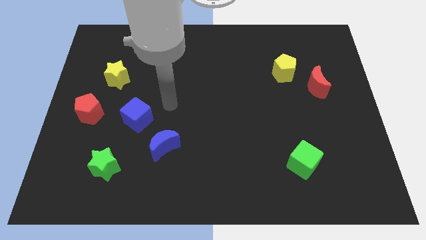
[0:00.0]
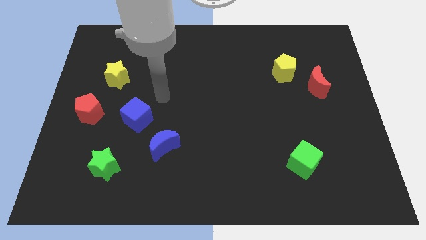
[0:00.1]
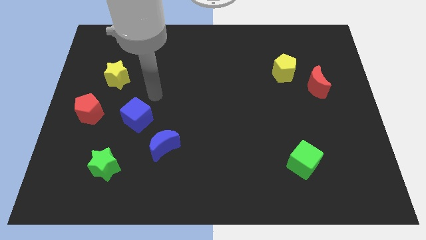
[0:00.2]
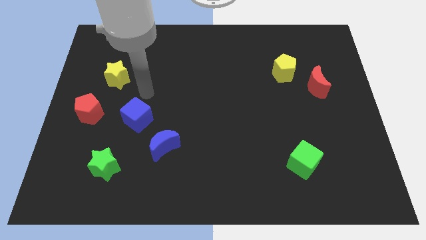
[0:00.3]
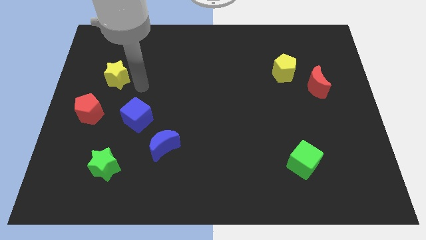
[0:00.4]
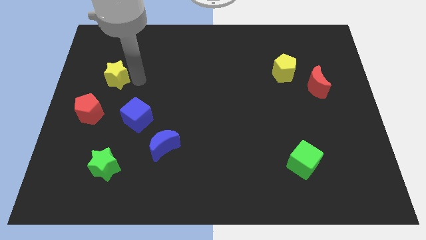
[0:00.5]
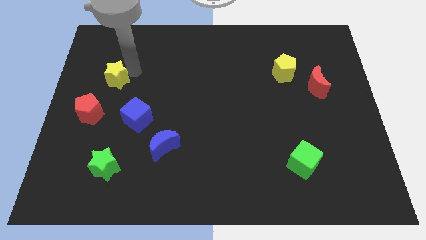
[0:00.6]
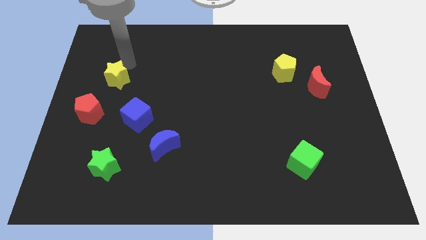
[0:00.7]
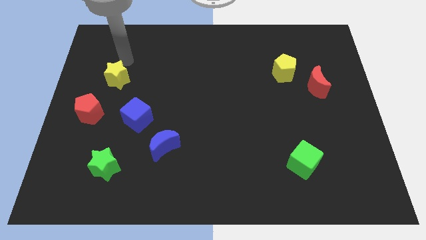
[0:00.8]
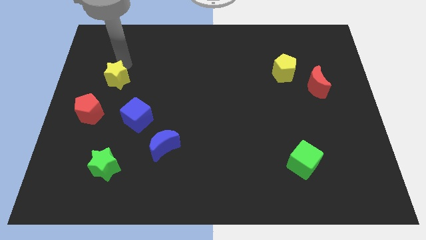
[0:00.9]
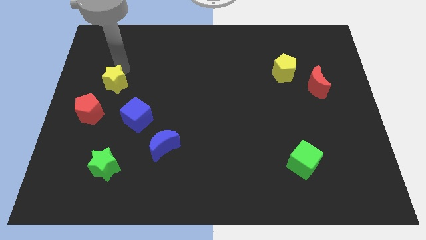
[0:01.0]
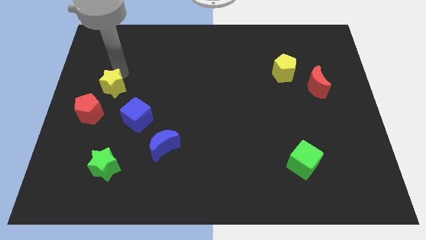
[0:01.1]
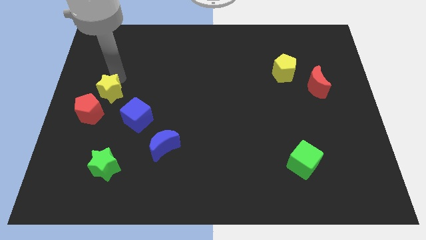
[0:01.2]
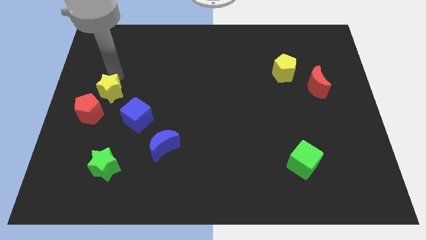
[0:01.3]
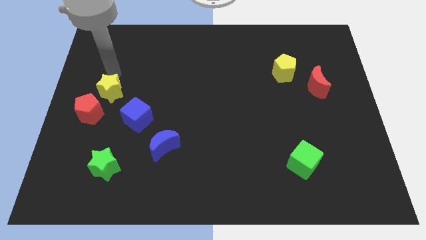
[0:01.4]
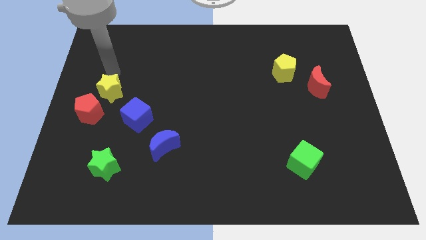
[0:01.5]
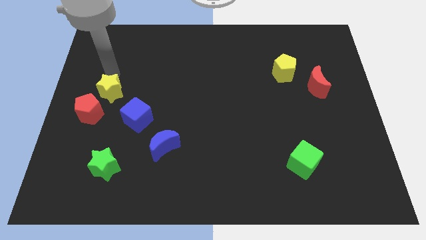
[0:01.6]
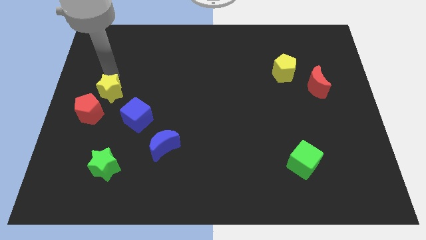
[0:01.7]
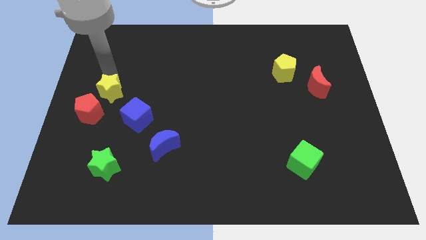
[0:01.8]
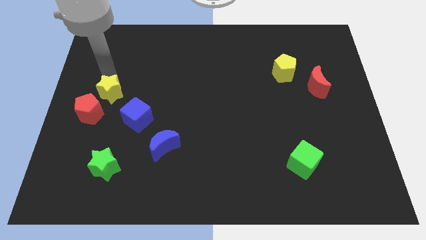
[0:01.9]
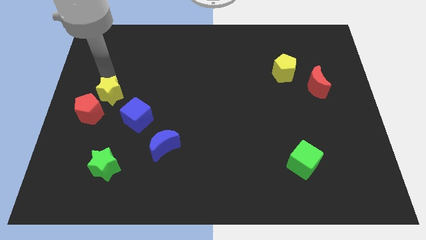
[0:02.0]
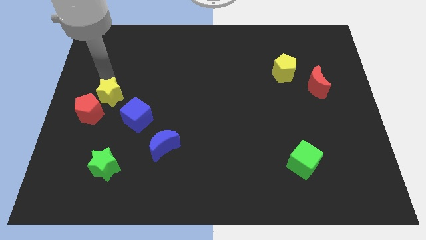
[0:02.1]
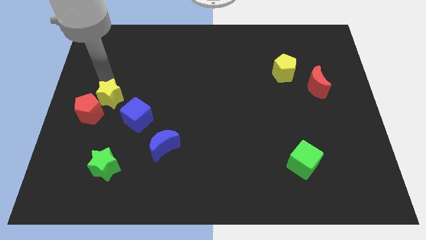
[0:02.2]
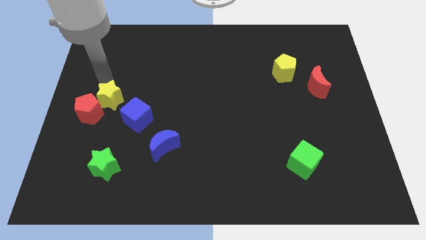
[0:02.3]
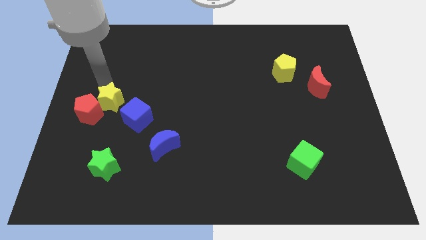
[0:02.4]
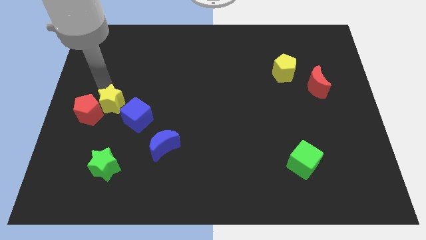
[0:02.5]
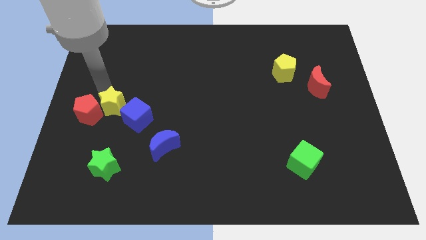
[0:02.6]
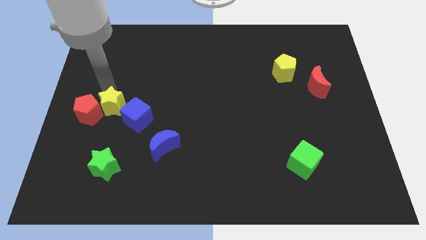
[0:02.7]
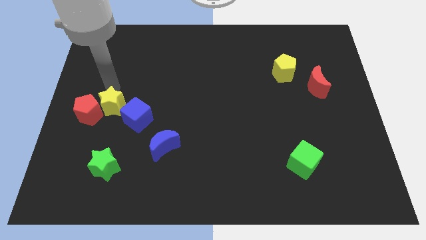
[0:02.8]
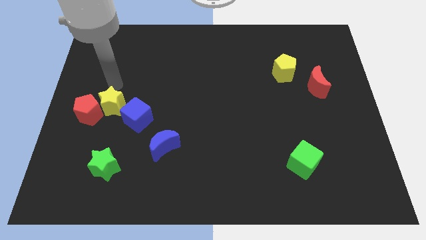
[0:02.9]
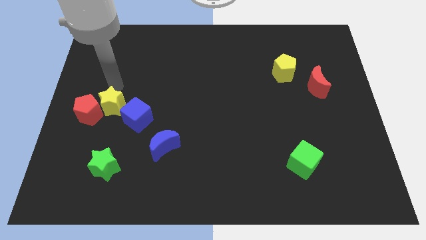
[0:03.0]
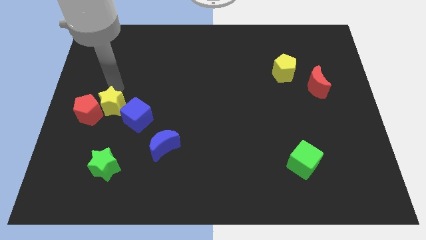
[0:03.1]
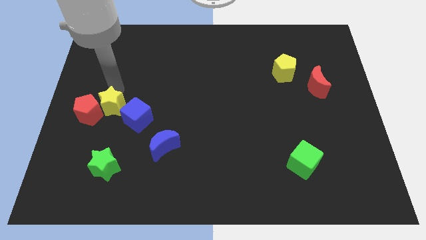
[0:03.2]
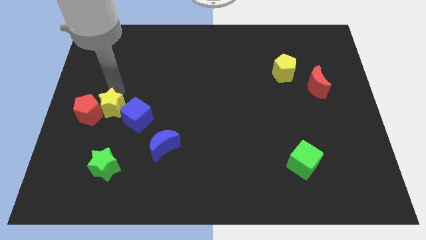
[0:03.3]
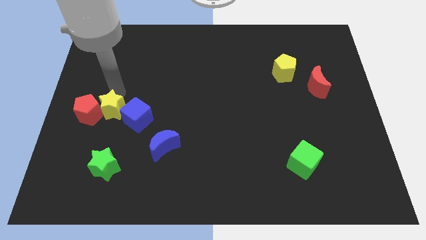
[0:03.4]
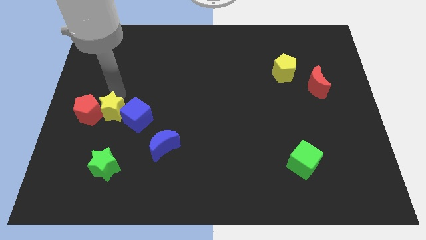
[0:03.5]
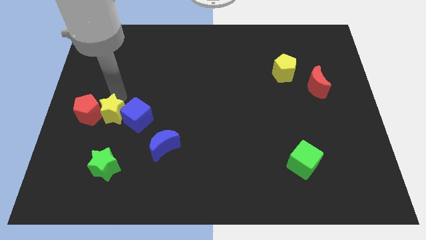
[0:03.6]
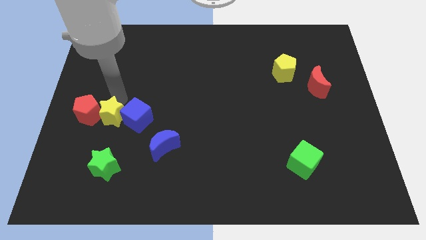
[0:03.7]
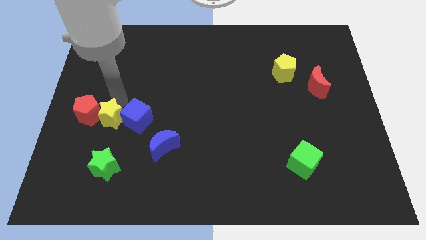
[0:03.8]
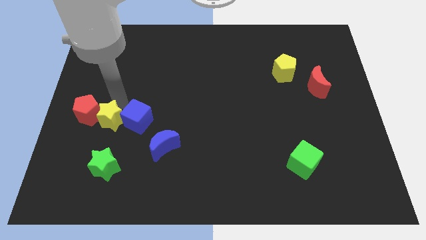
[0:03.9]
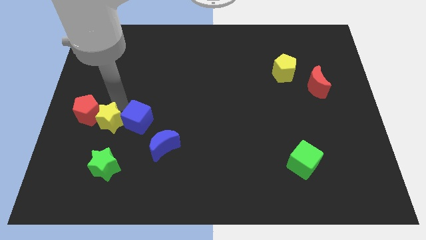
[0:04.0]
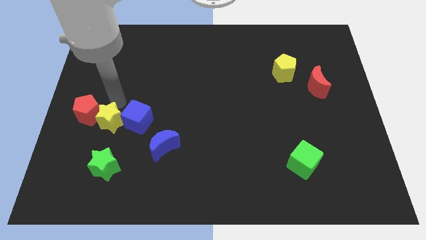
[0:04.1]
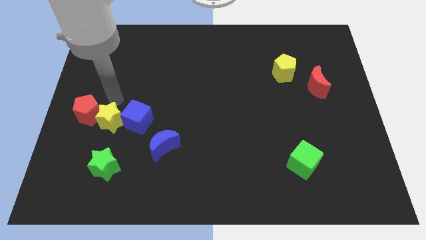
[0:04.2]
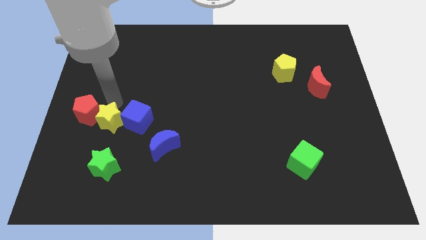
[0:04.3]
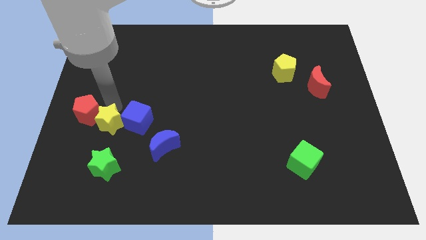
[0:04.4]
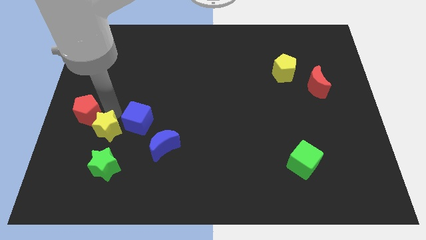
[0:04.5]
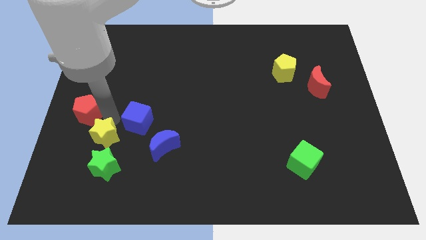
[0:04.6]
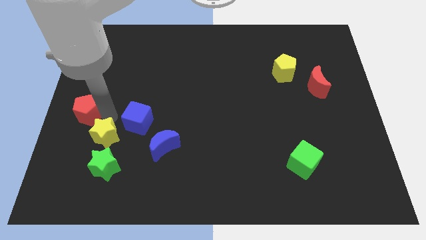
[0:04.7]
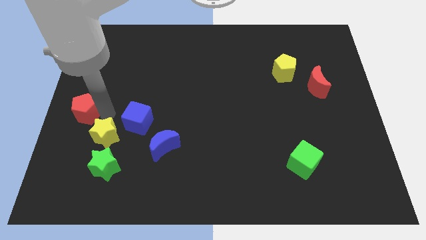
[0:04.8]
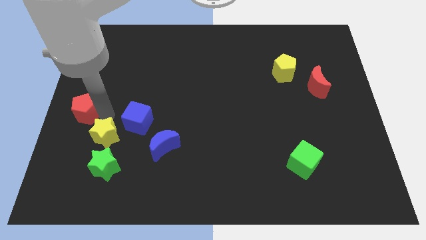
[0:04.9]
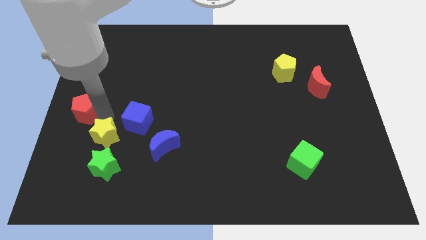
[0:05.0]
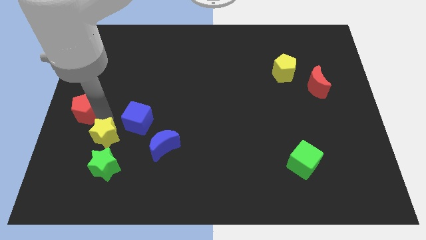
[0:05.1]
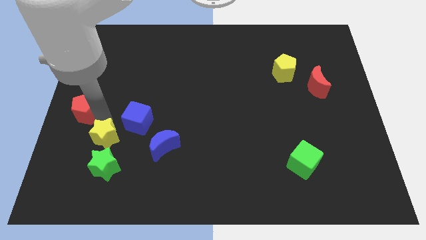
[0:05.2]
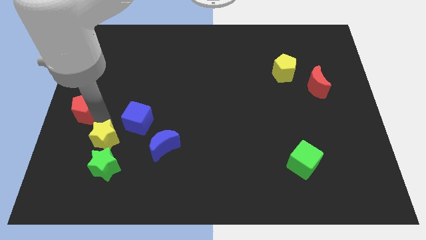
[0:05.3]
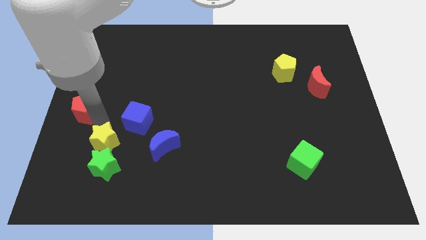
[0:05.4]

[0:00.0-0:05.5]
put the yellow star next to the green star
